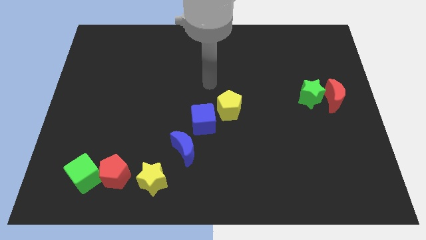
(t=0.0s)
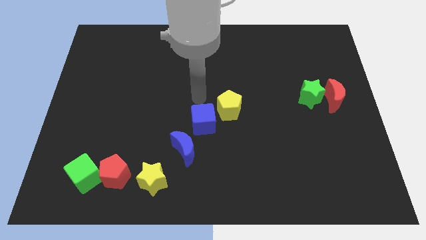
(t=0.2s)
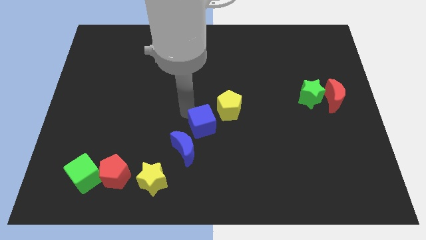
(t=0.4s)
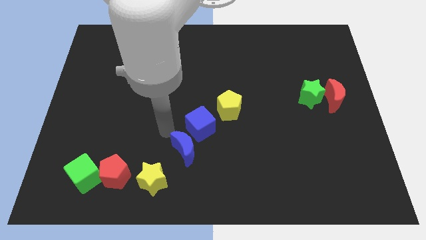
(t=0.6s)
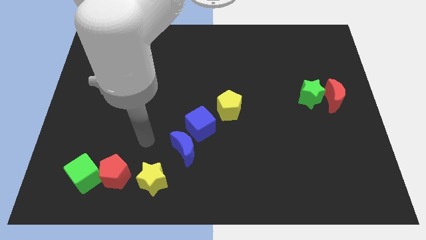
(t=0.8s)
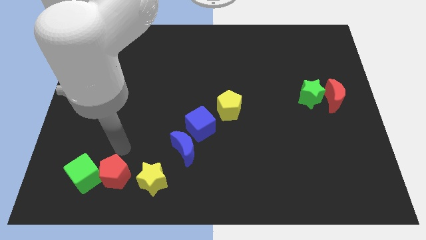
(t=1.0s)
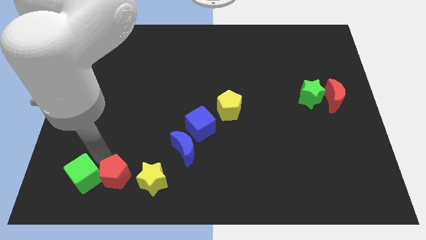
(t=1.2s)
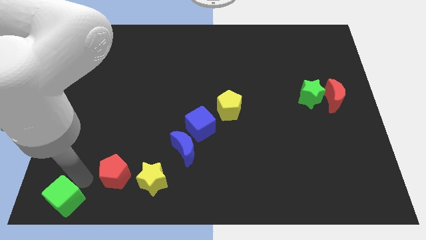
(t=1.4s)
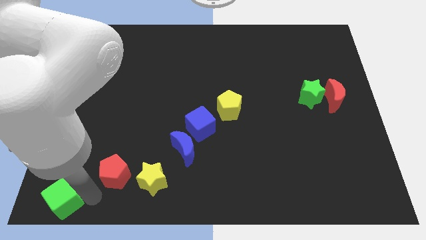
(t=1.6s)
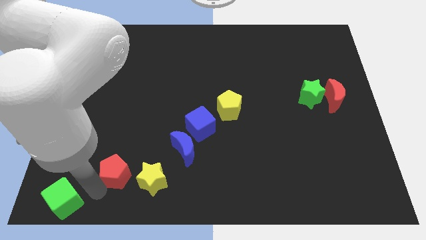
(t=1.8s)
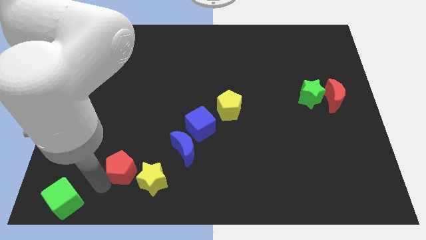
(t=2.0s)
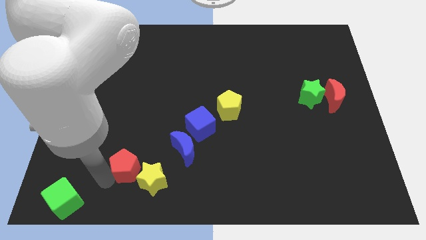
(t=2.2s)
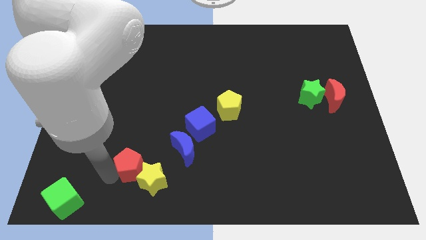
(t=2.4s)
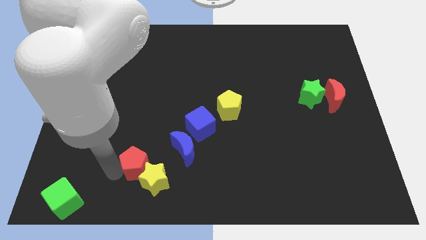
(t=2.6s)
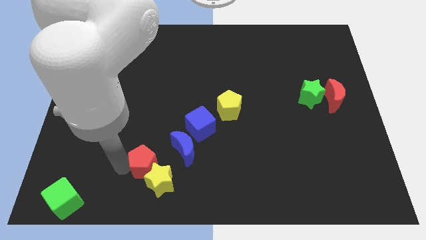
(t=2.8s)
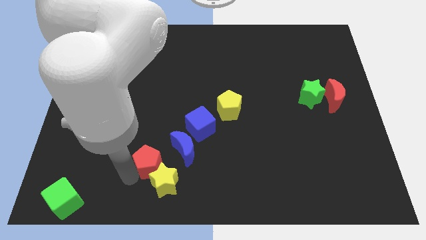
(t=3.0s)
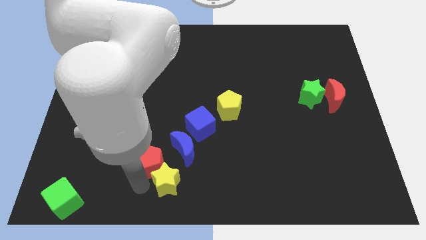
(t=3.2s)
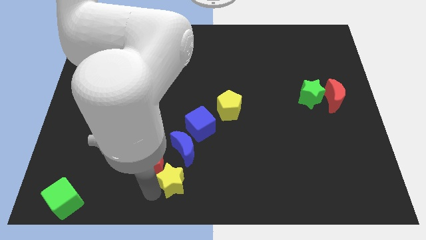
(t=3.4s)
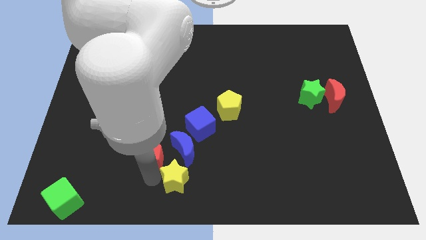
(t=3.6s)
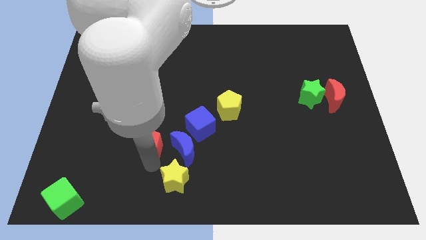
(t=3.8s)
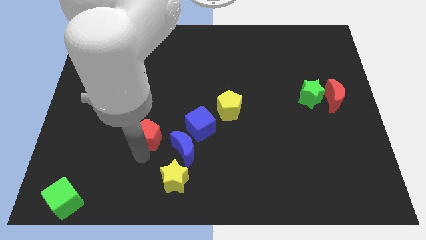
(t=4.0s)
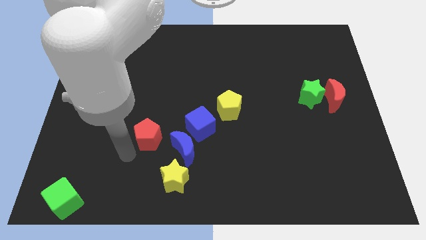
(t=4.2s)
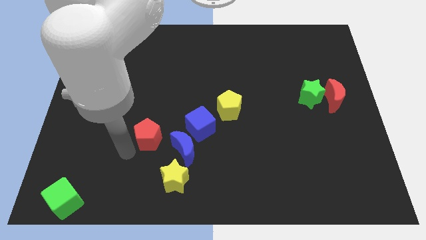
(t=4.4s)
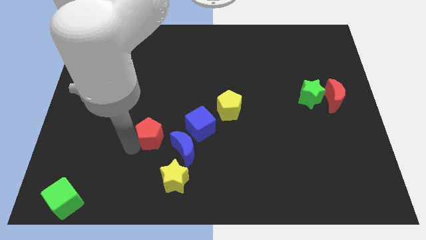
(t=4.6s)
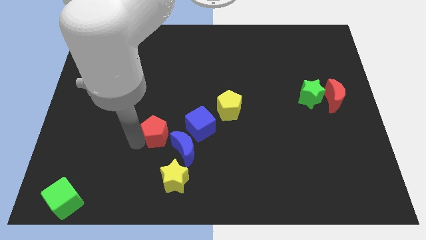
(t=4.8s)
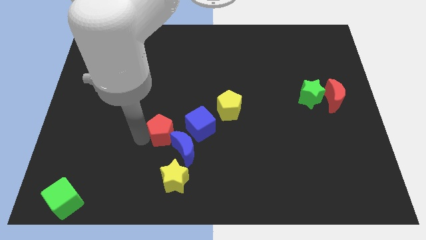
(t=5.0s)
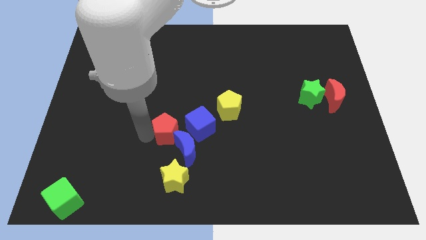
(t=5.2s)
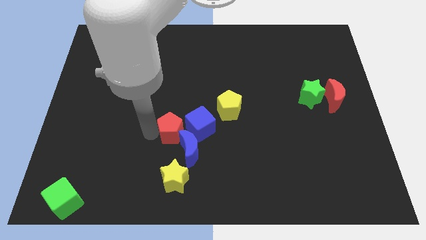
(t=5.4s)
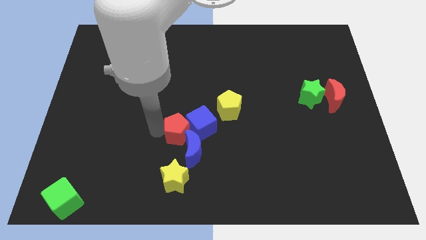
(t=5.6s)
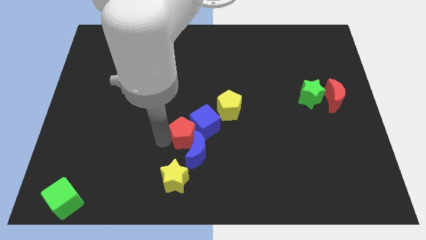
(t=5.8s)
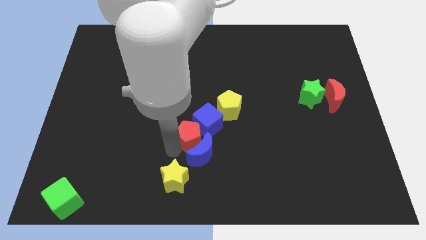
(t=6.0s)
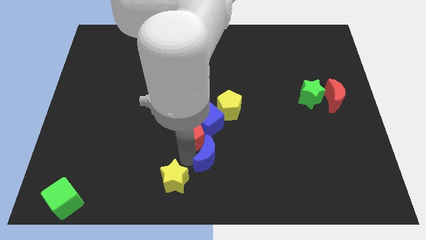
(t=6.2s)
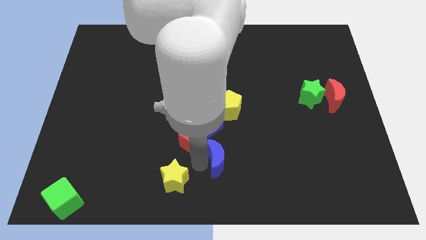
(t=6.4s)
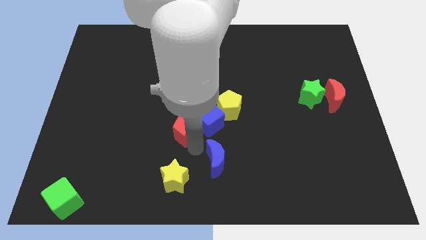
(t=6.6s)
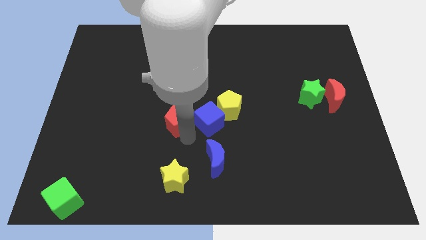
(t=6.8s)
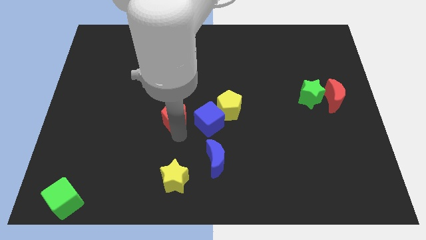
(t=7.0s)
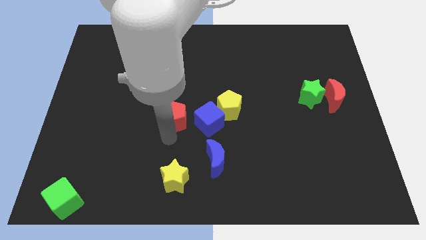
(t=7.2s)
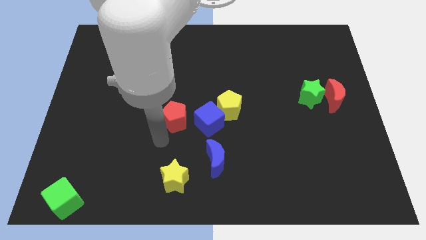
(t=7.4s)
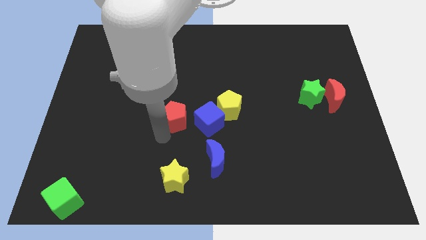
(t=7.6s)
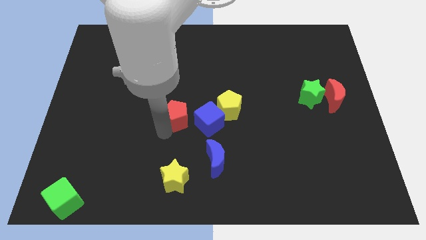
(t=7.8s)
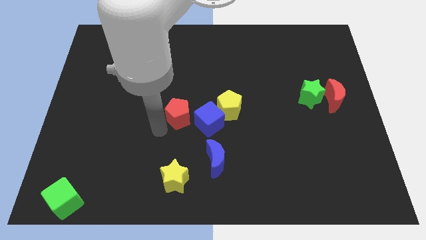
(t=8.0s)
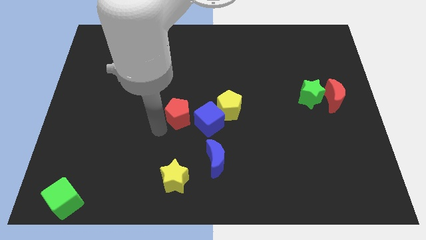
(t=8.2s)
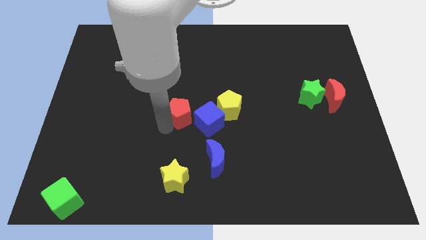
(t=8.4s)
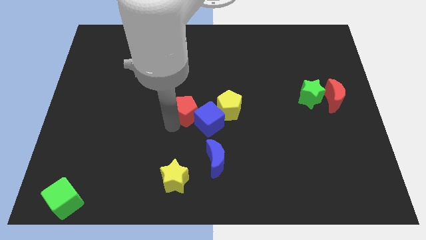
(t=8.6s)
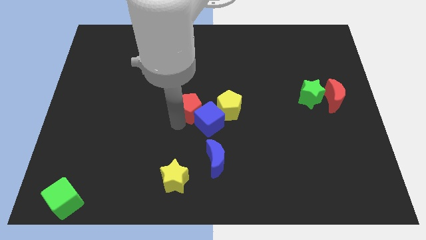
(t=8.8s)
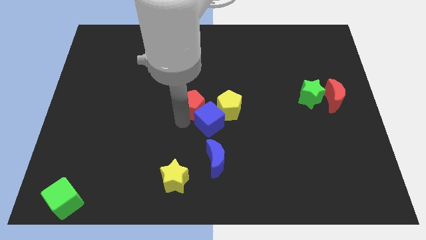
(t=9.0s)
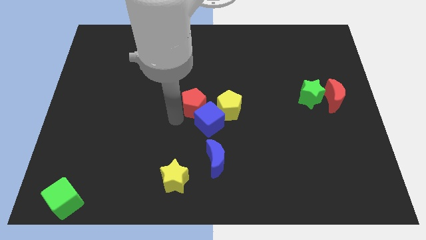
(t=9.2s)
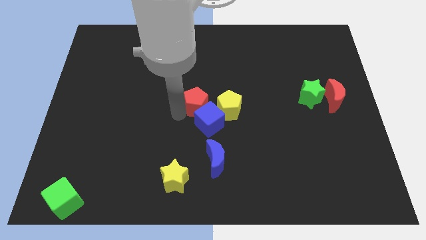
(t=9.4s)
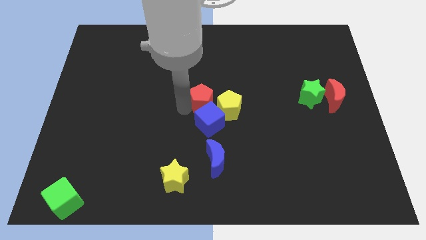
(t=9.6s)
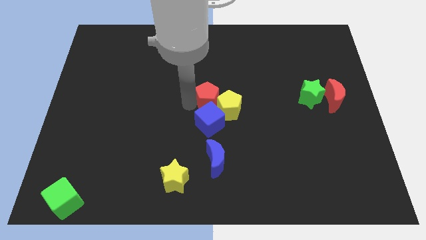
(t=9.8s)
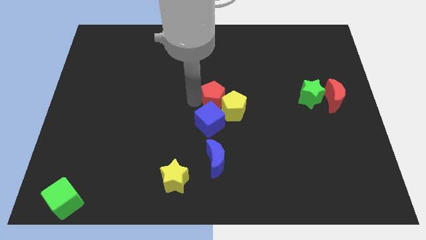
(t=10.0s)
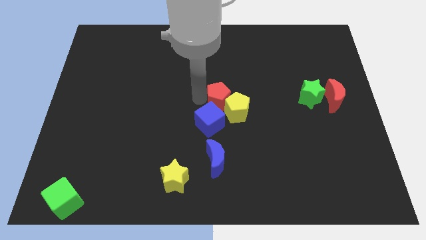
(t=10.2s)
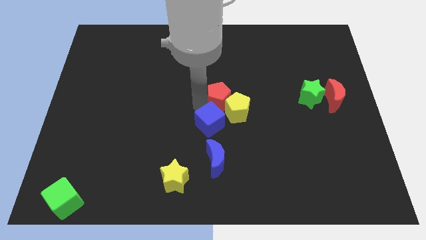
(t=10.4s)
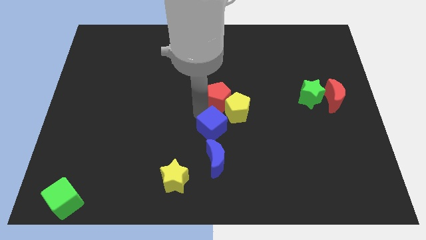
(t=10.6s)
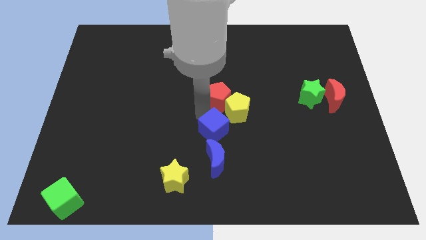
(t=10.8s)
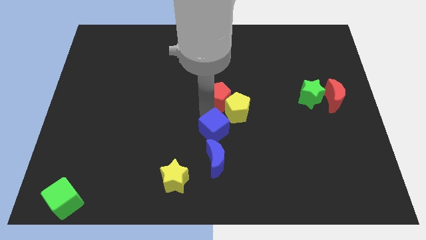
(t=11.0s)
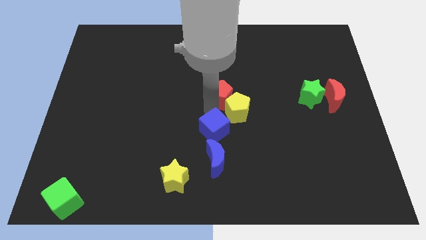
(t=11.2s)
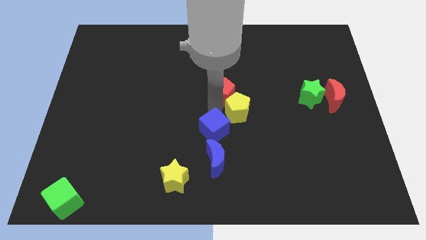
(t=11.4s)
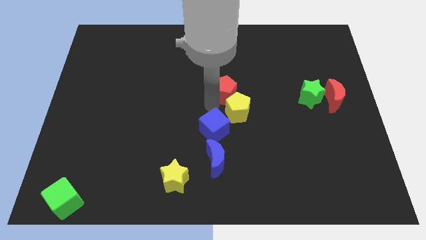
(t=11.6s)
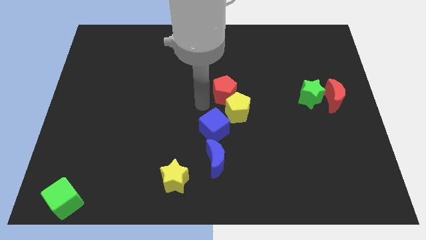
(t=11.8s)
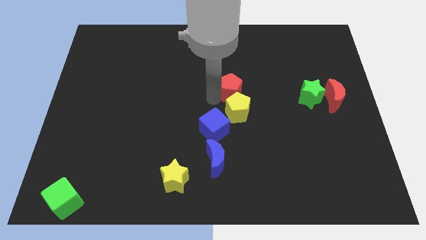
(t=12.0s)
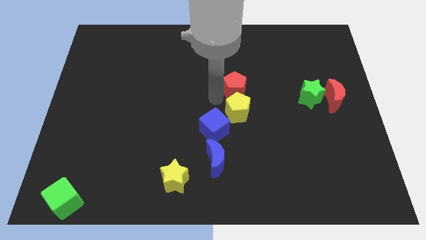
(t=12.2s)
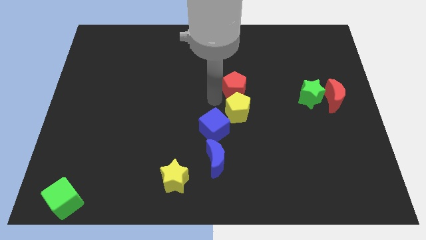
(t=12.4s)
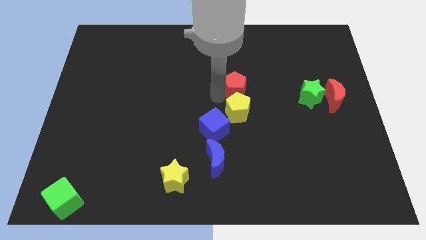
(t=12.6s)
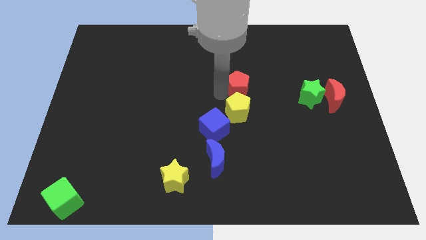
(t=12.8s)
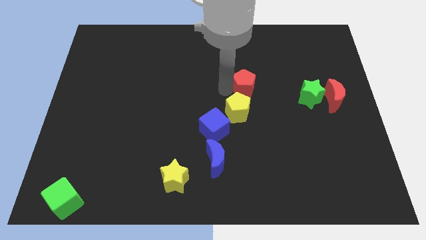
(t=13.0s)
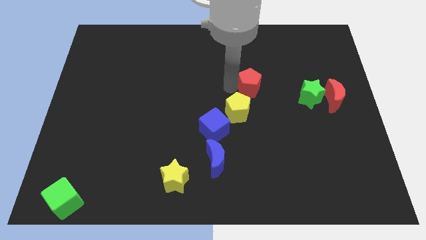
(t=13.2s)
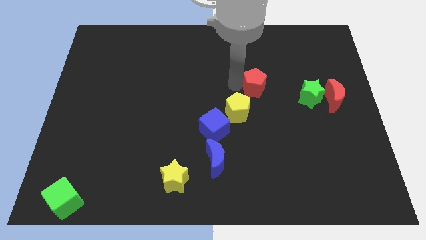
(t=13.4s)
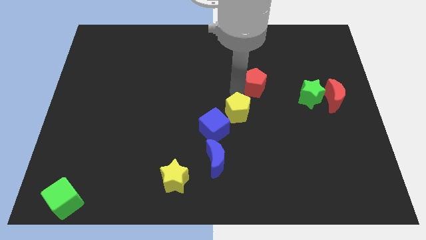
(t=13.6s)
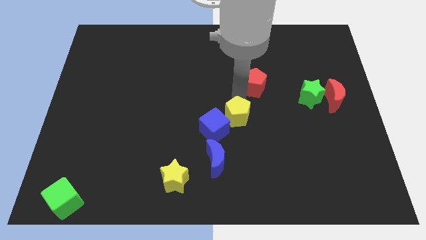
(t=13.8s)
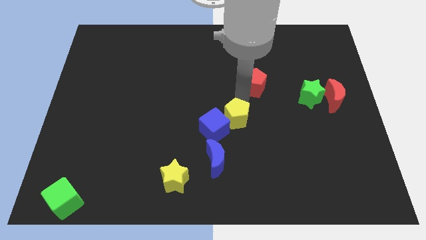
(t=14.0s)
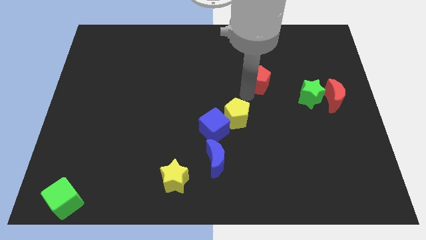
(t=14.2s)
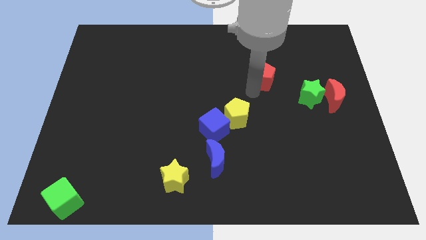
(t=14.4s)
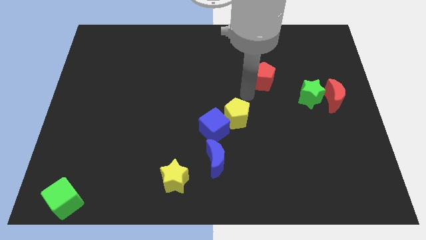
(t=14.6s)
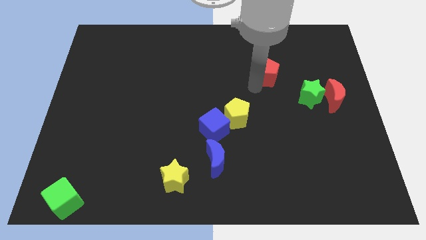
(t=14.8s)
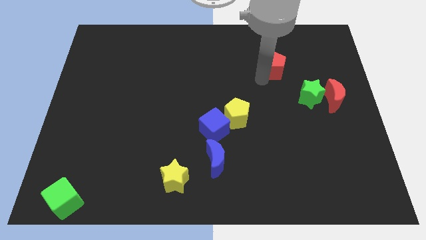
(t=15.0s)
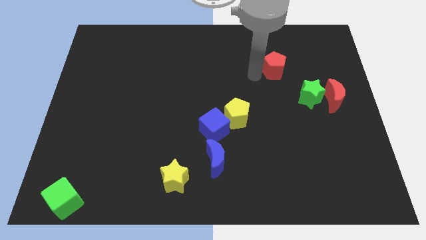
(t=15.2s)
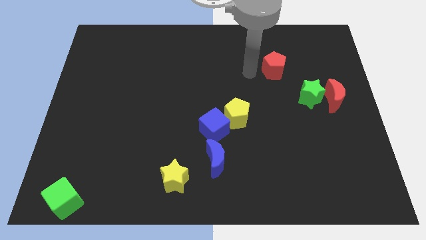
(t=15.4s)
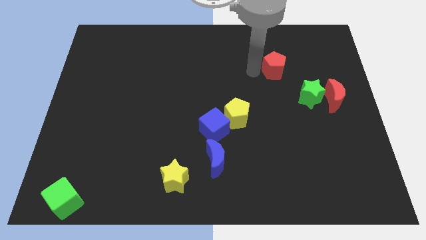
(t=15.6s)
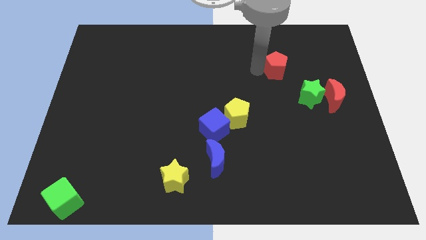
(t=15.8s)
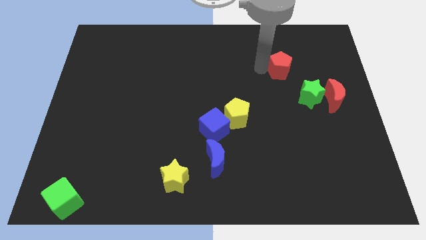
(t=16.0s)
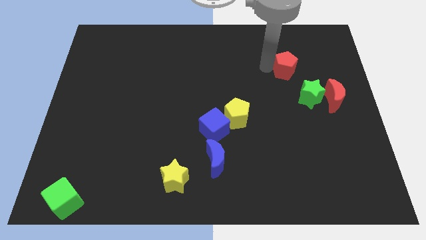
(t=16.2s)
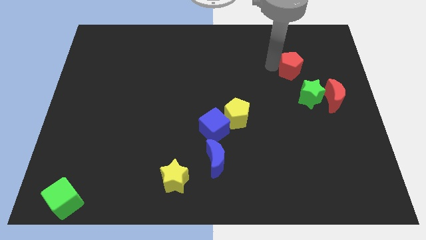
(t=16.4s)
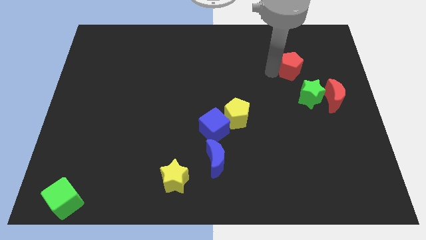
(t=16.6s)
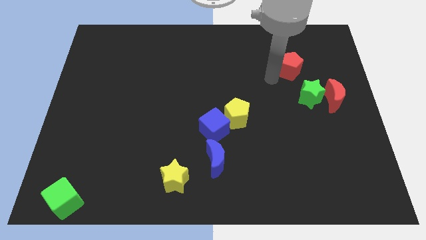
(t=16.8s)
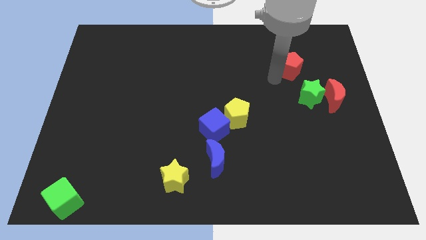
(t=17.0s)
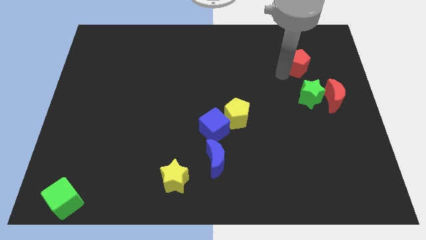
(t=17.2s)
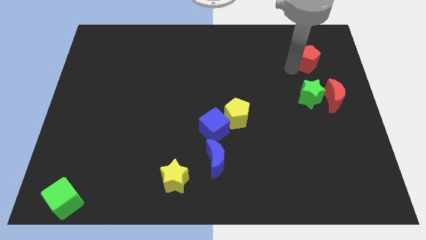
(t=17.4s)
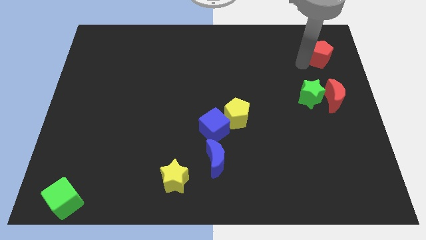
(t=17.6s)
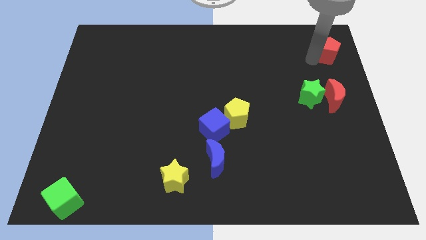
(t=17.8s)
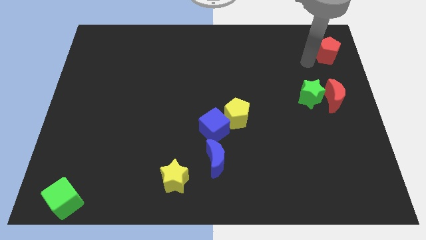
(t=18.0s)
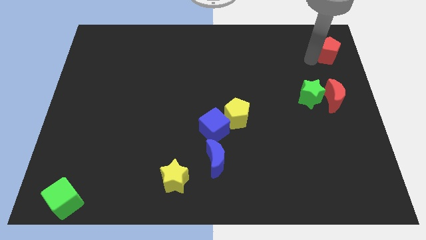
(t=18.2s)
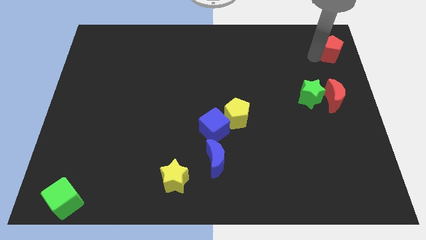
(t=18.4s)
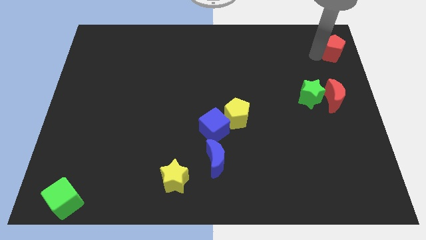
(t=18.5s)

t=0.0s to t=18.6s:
push the red pentagon to the top right
